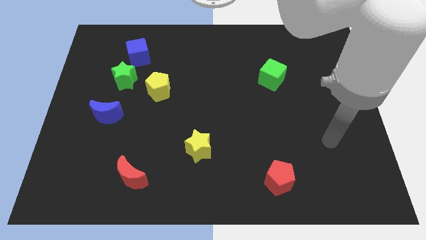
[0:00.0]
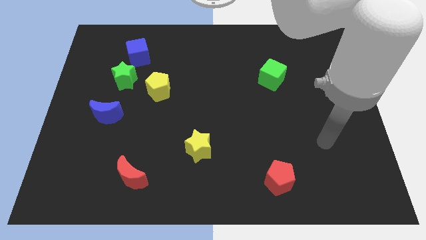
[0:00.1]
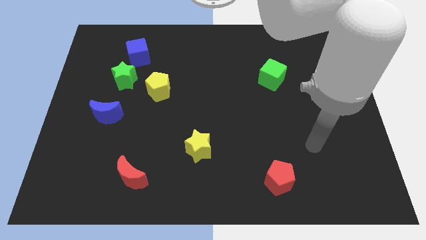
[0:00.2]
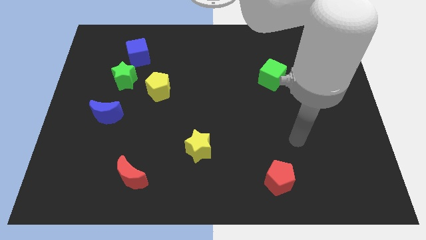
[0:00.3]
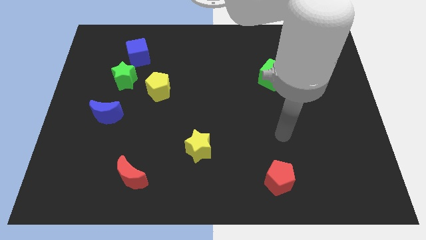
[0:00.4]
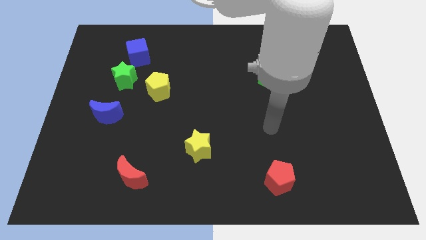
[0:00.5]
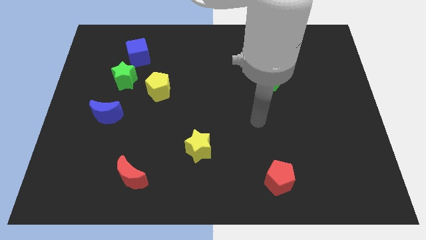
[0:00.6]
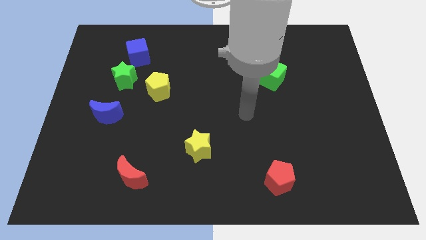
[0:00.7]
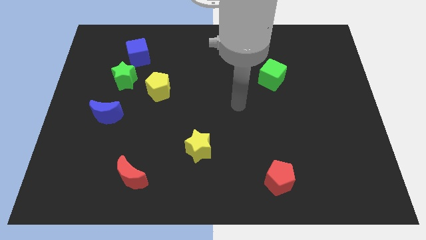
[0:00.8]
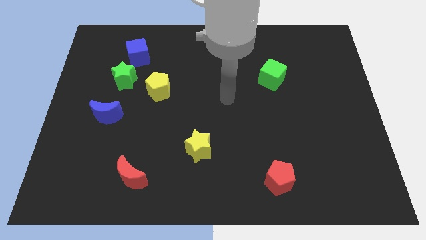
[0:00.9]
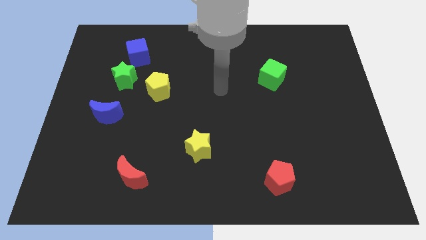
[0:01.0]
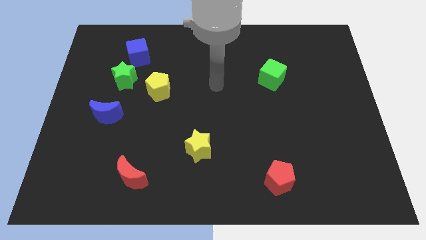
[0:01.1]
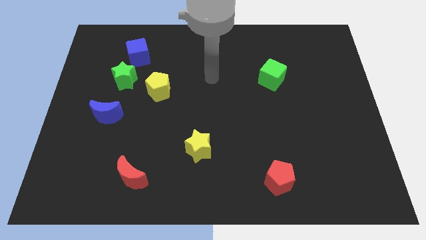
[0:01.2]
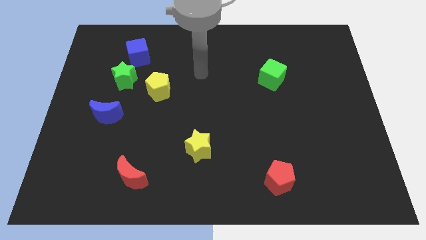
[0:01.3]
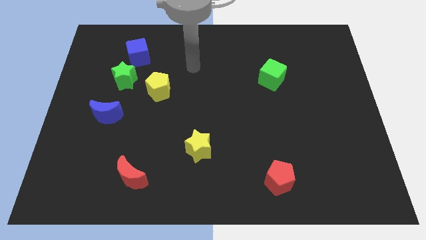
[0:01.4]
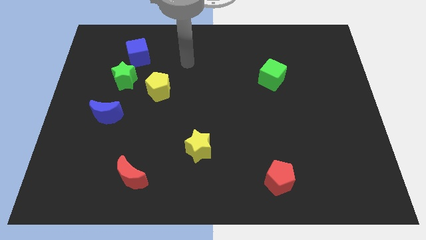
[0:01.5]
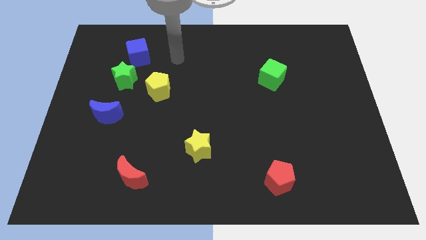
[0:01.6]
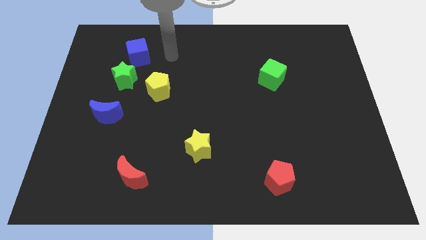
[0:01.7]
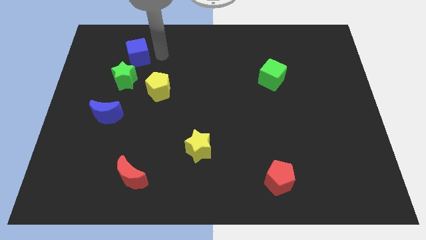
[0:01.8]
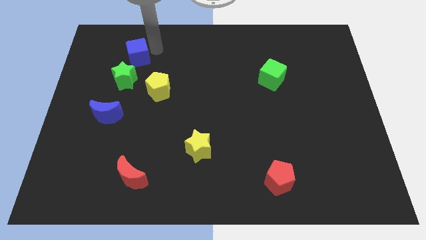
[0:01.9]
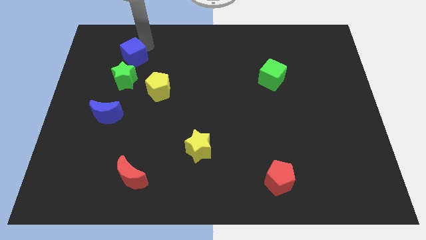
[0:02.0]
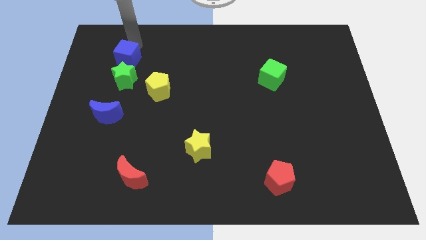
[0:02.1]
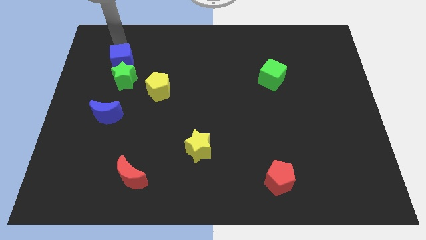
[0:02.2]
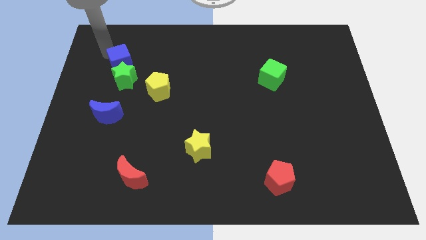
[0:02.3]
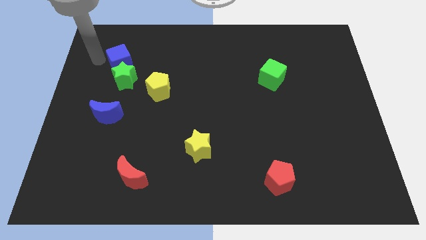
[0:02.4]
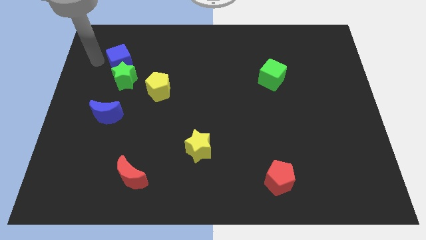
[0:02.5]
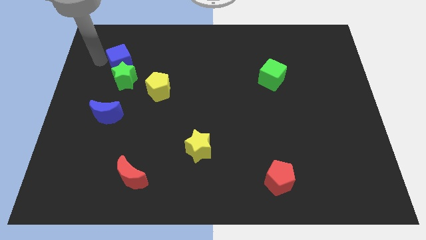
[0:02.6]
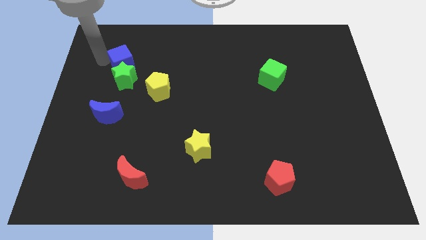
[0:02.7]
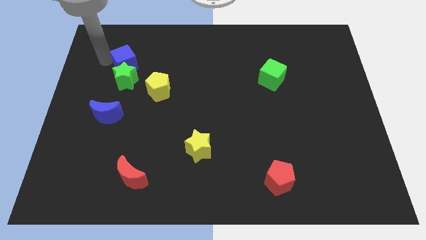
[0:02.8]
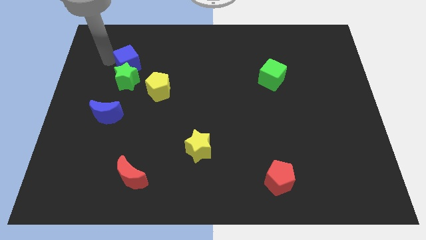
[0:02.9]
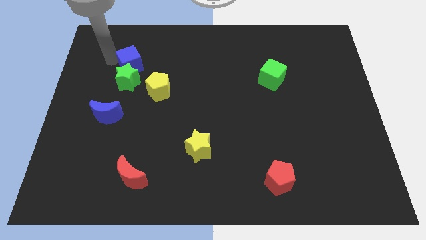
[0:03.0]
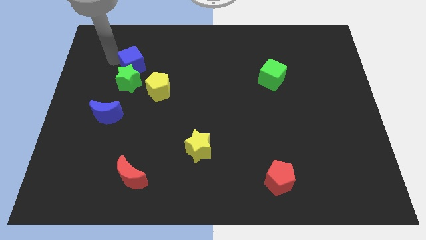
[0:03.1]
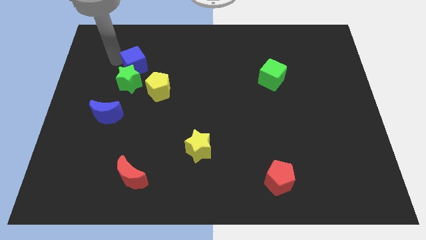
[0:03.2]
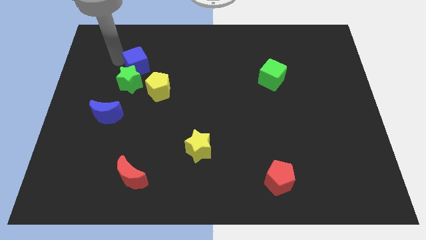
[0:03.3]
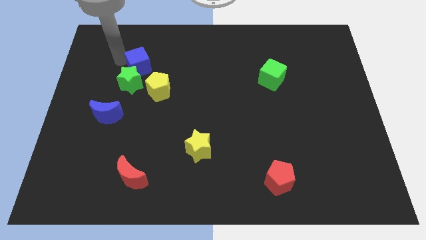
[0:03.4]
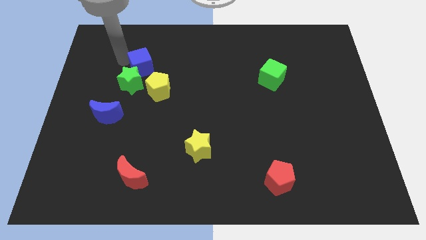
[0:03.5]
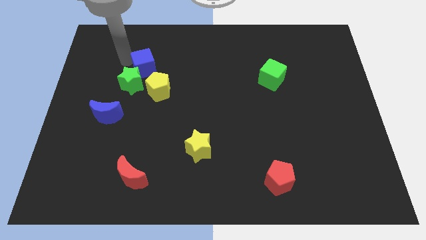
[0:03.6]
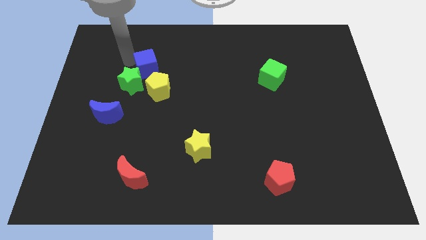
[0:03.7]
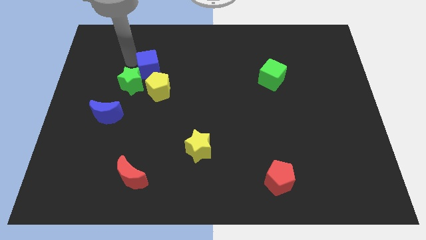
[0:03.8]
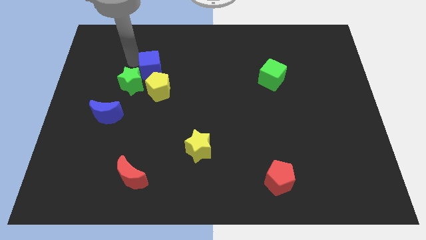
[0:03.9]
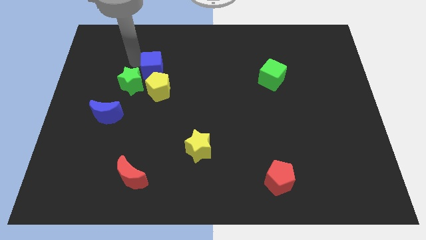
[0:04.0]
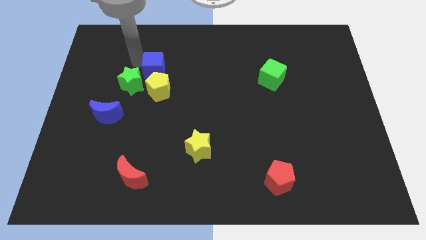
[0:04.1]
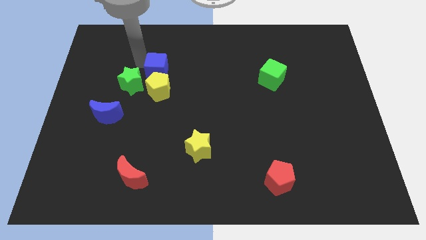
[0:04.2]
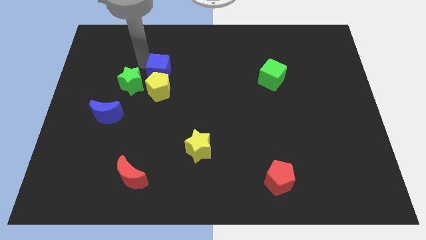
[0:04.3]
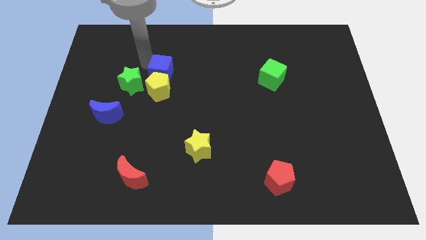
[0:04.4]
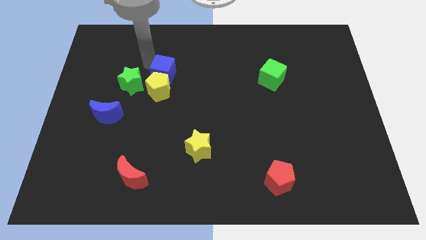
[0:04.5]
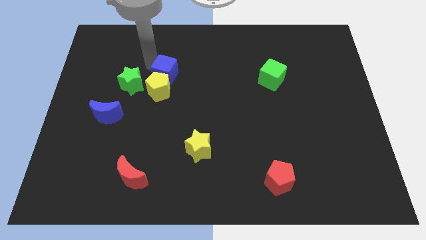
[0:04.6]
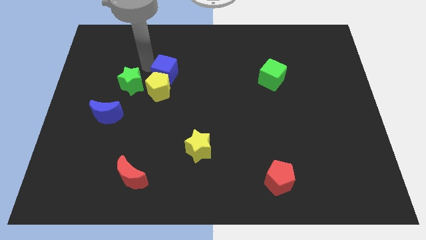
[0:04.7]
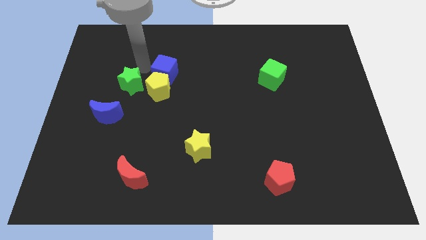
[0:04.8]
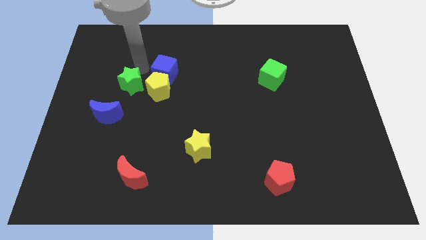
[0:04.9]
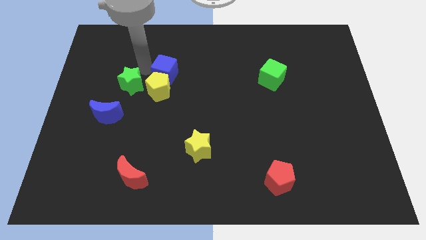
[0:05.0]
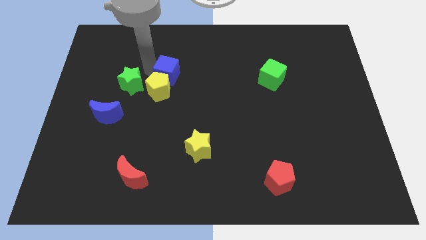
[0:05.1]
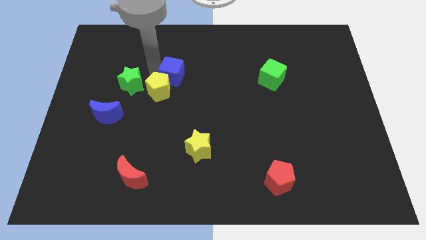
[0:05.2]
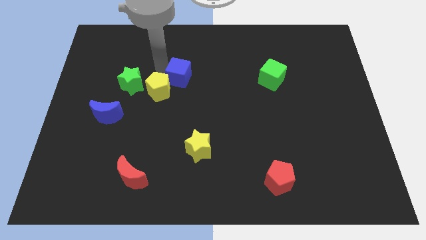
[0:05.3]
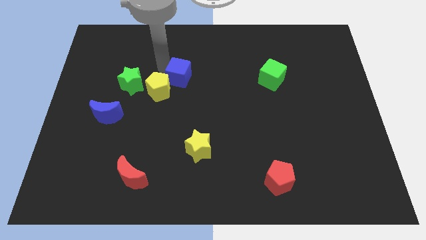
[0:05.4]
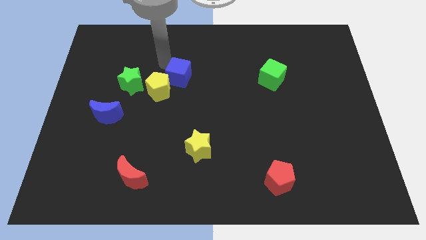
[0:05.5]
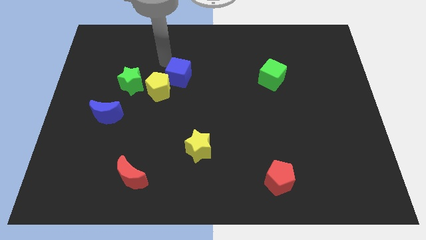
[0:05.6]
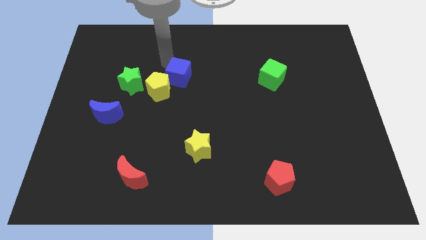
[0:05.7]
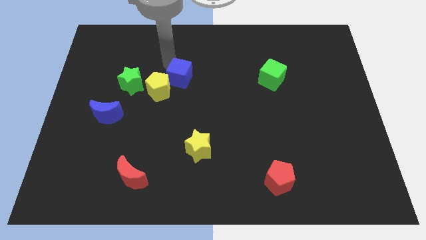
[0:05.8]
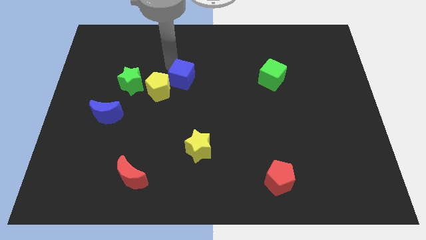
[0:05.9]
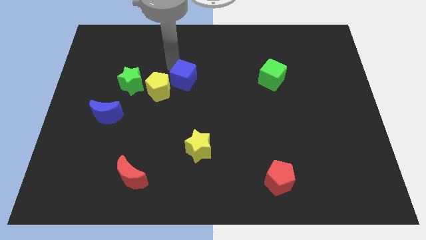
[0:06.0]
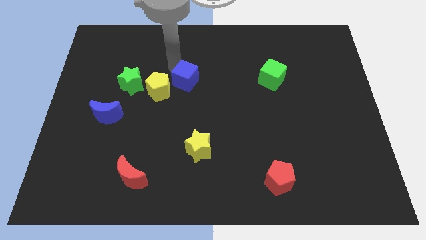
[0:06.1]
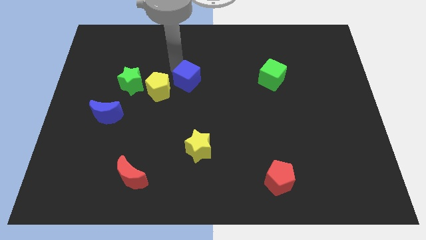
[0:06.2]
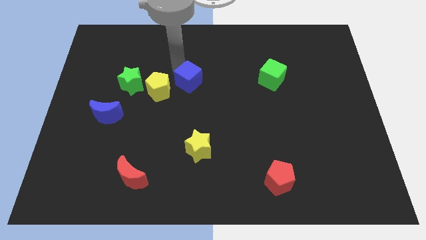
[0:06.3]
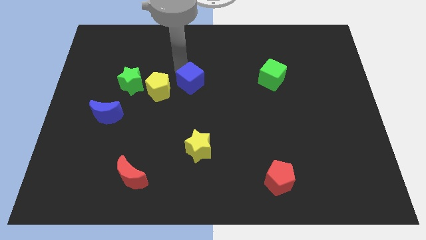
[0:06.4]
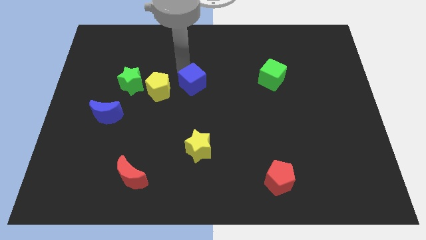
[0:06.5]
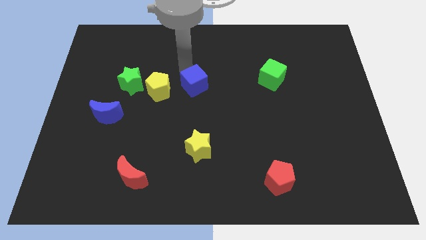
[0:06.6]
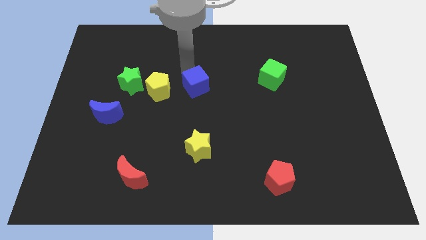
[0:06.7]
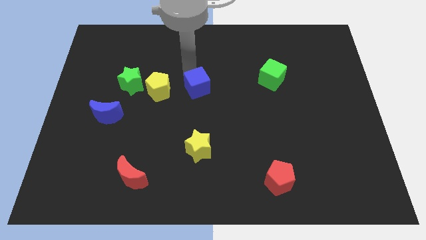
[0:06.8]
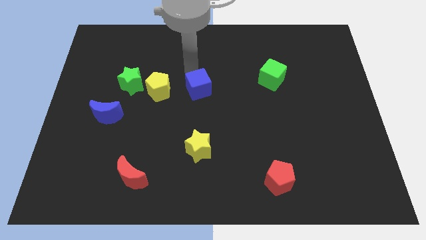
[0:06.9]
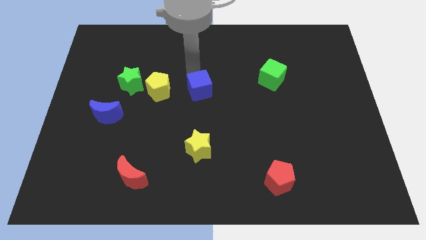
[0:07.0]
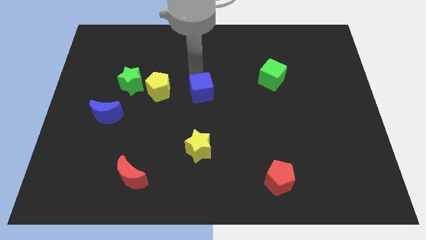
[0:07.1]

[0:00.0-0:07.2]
move the blue cube downwards and right

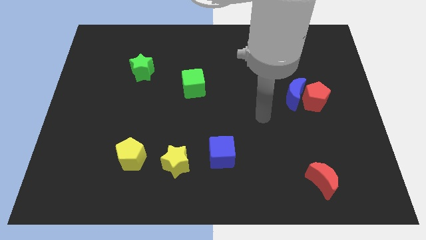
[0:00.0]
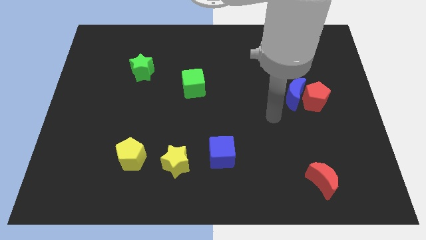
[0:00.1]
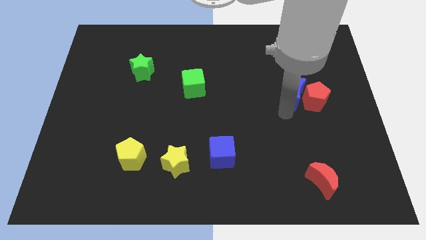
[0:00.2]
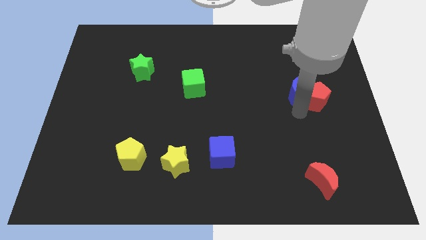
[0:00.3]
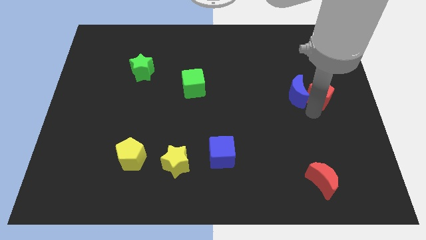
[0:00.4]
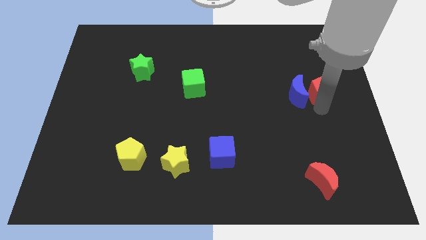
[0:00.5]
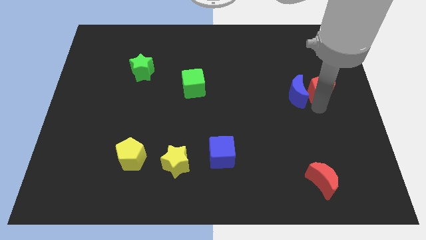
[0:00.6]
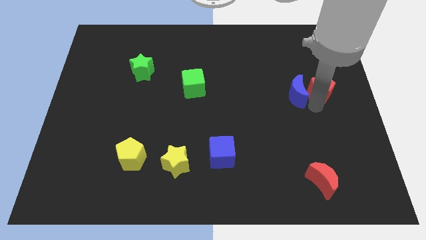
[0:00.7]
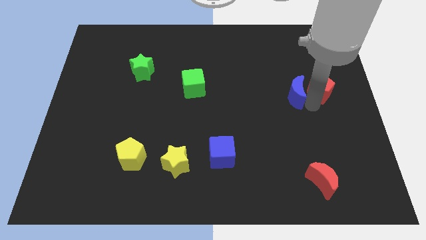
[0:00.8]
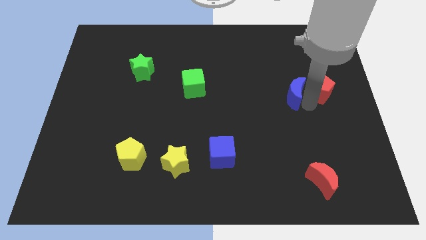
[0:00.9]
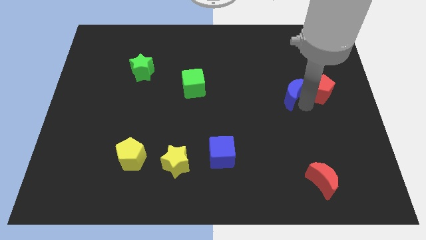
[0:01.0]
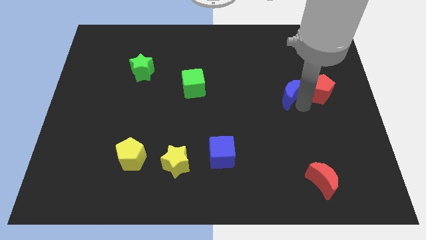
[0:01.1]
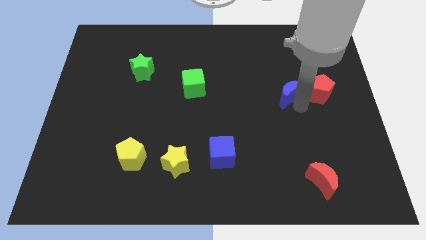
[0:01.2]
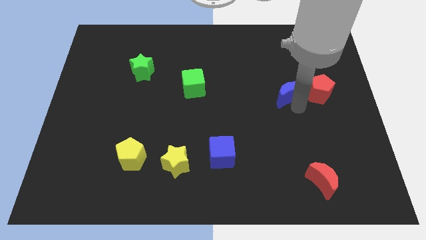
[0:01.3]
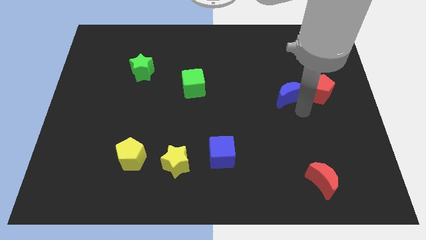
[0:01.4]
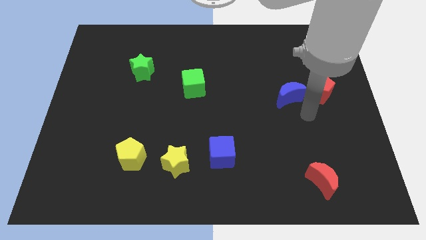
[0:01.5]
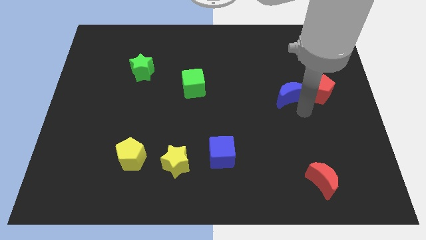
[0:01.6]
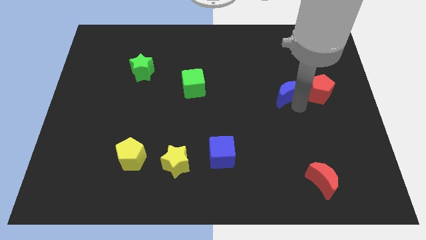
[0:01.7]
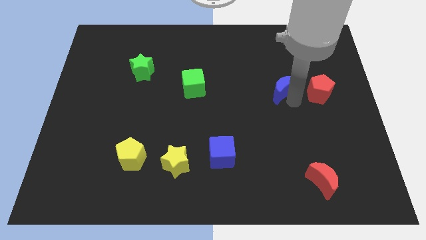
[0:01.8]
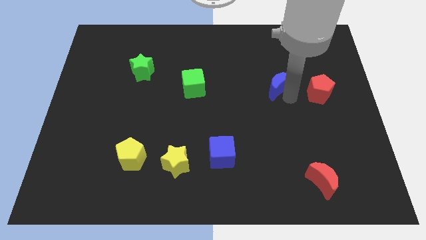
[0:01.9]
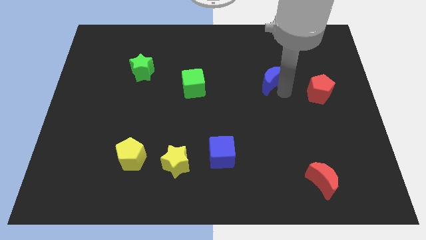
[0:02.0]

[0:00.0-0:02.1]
slightly move the blue moon up and to the left diagonally
